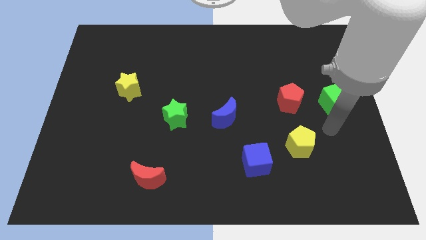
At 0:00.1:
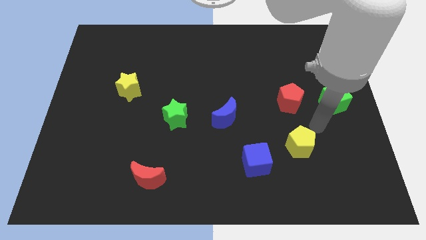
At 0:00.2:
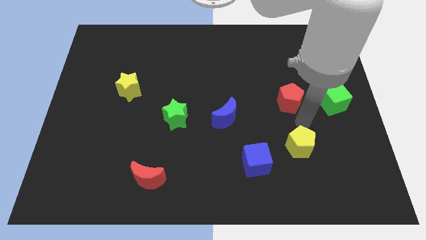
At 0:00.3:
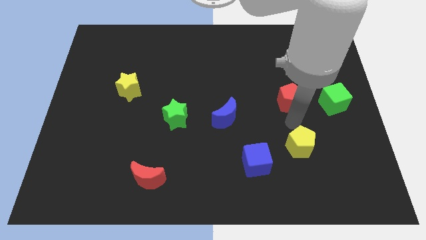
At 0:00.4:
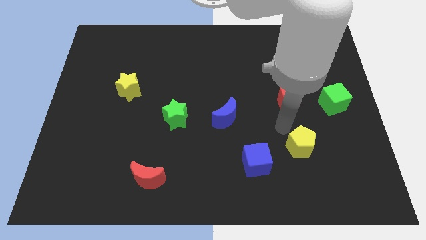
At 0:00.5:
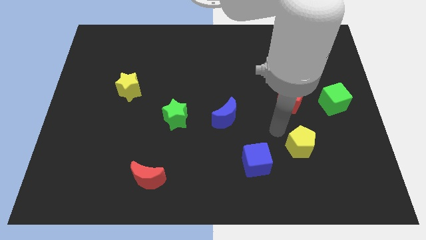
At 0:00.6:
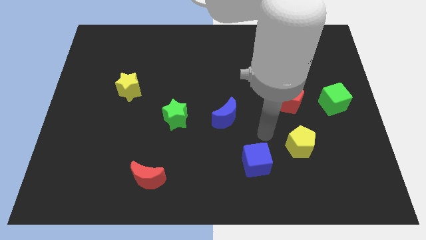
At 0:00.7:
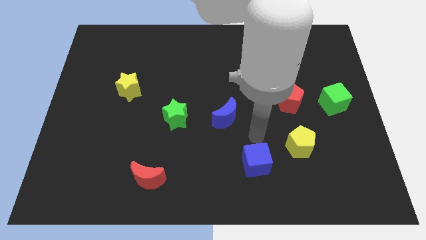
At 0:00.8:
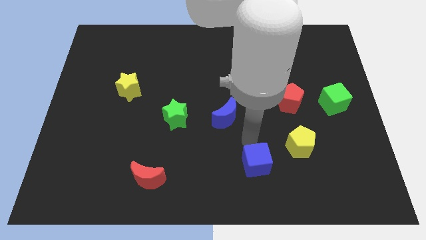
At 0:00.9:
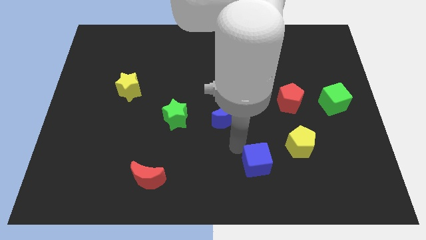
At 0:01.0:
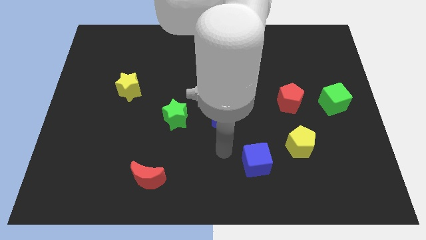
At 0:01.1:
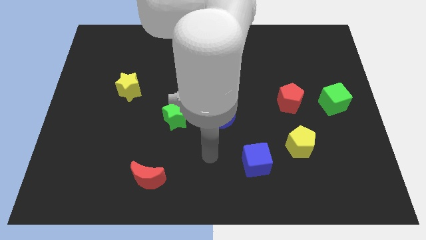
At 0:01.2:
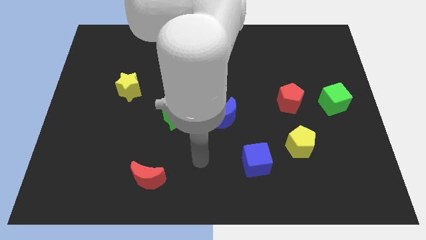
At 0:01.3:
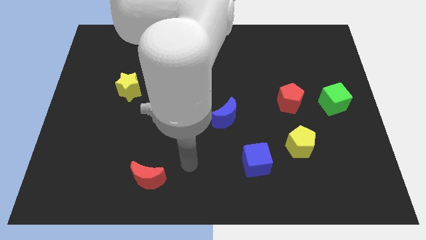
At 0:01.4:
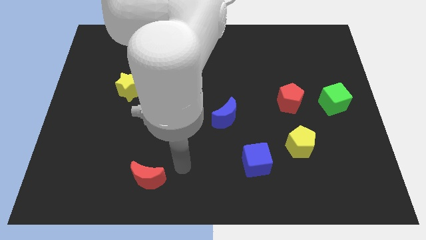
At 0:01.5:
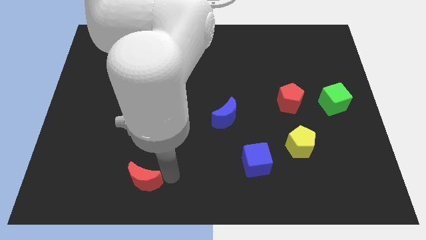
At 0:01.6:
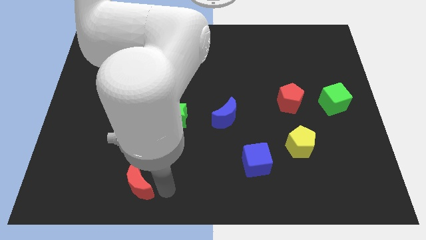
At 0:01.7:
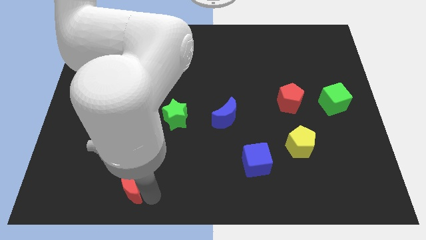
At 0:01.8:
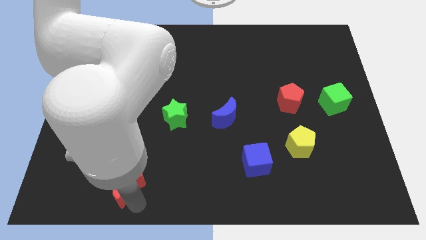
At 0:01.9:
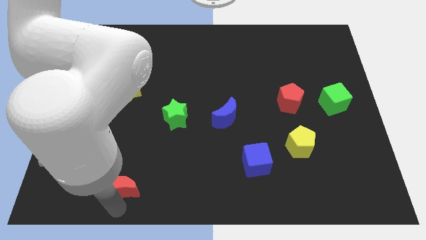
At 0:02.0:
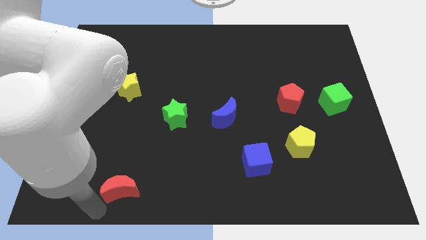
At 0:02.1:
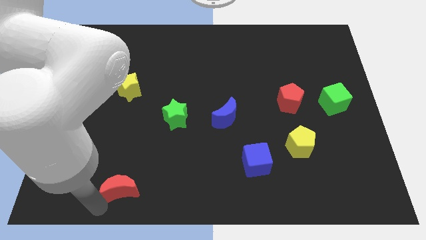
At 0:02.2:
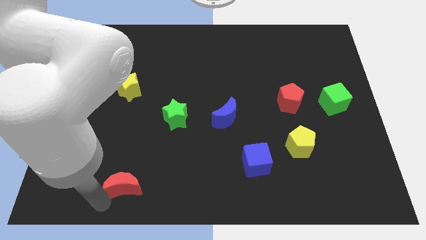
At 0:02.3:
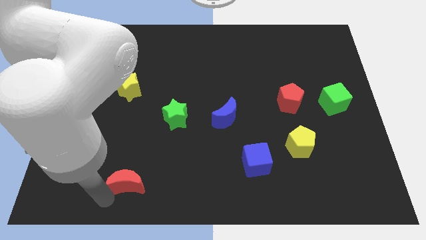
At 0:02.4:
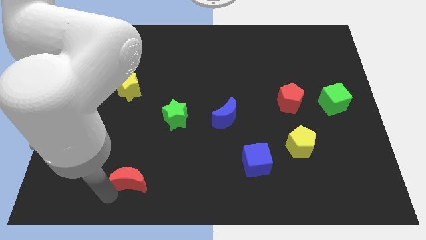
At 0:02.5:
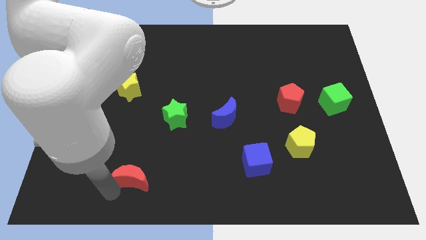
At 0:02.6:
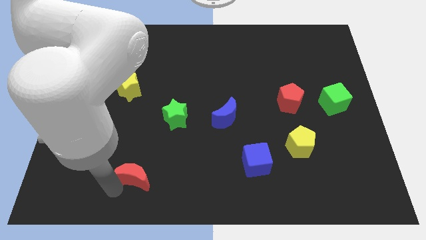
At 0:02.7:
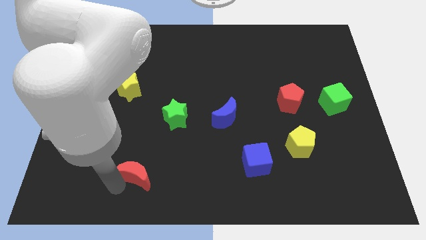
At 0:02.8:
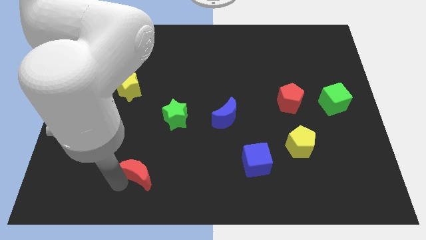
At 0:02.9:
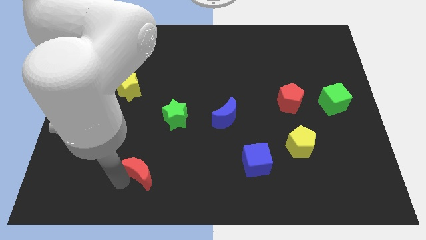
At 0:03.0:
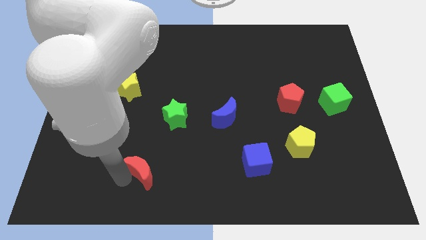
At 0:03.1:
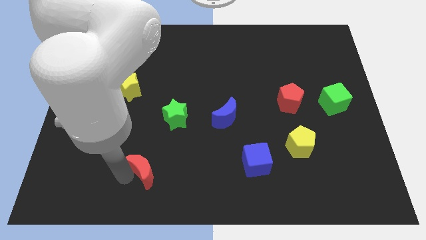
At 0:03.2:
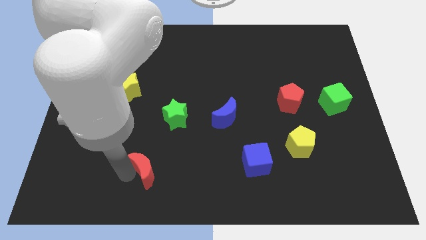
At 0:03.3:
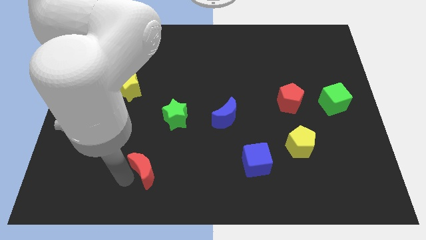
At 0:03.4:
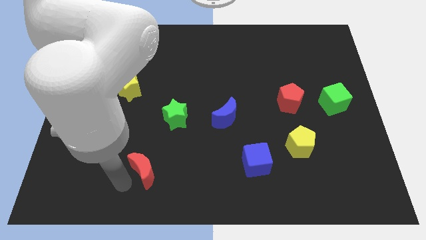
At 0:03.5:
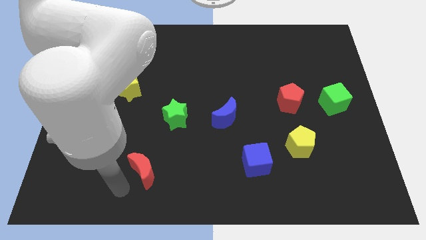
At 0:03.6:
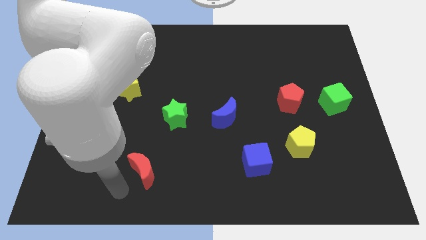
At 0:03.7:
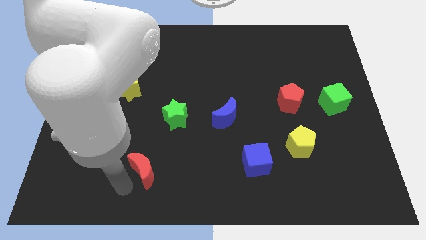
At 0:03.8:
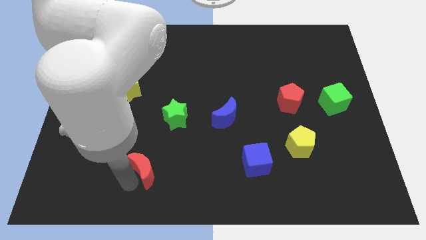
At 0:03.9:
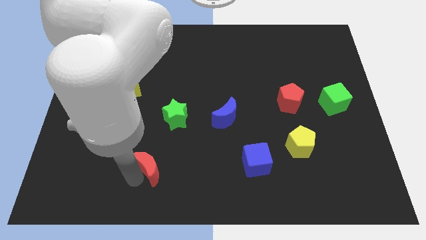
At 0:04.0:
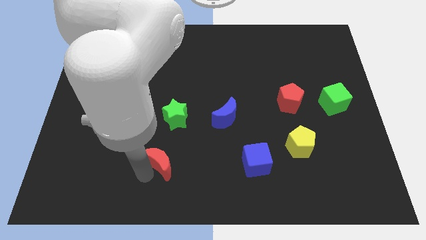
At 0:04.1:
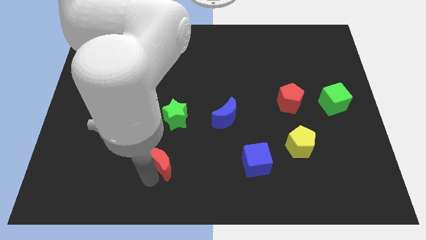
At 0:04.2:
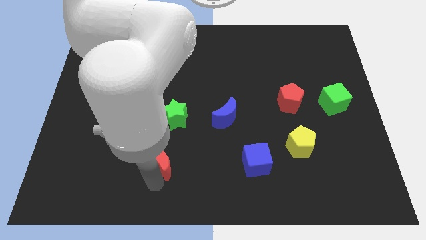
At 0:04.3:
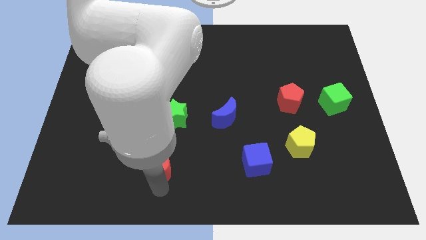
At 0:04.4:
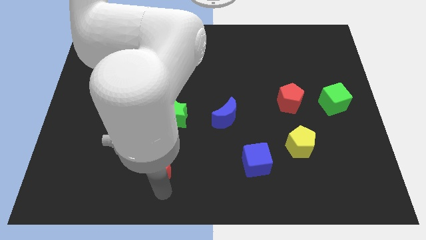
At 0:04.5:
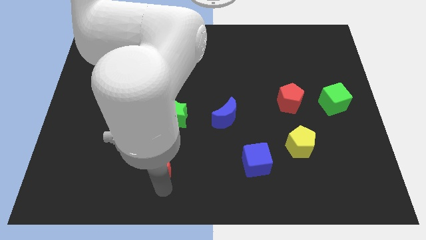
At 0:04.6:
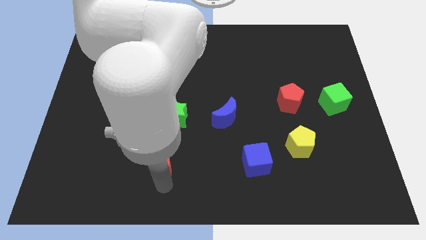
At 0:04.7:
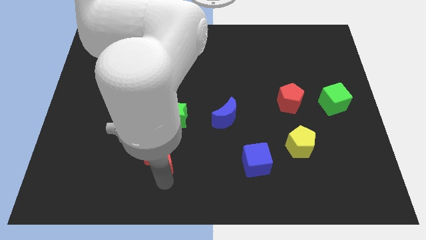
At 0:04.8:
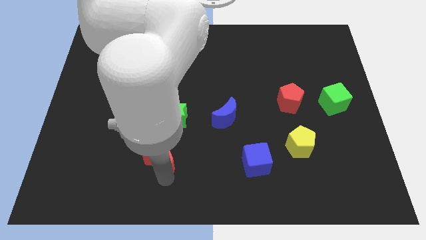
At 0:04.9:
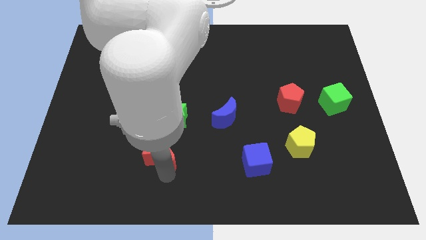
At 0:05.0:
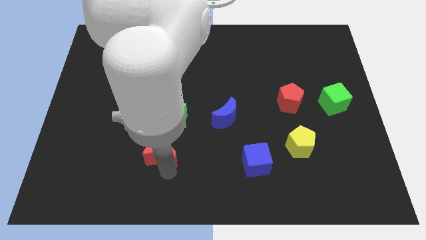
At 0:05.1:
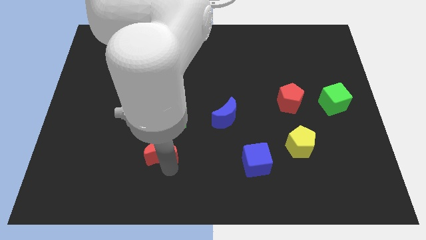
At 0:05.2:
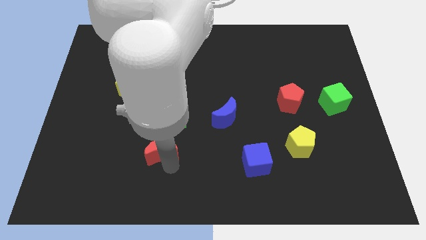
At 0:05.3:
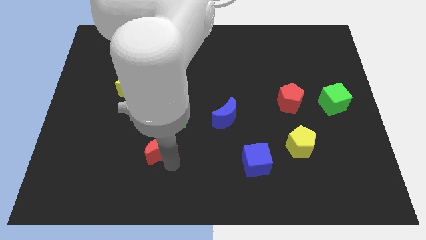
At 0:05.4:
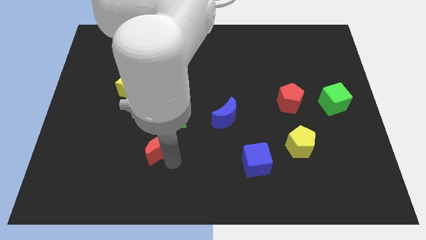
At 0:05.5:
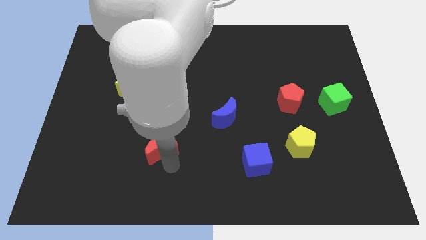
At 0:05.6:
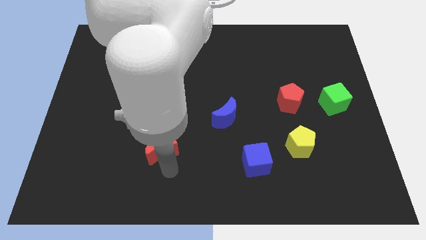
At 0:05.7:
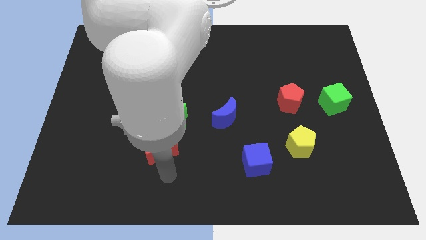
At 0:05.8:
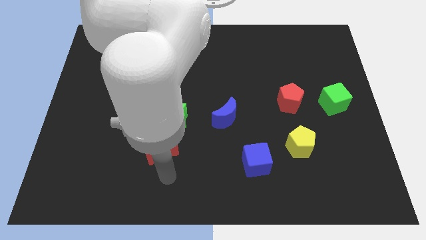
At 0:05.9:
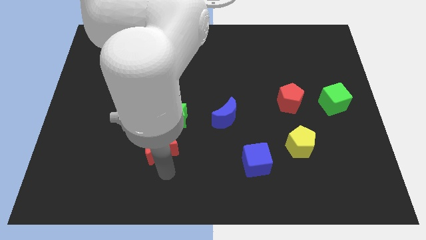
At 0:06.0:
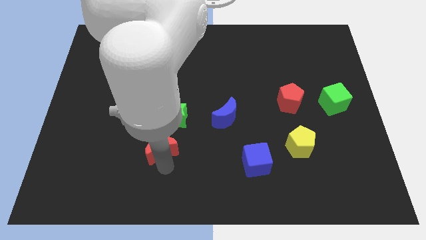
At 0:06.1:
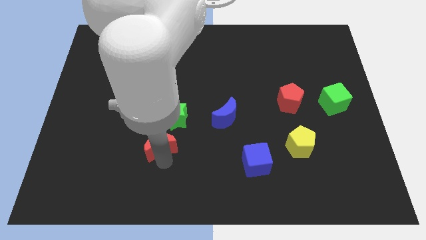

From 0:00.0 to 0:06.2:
slightly move the red moon up

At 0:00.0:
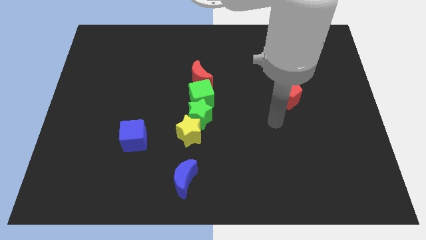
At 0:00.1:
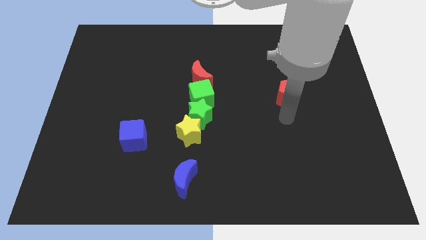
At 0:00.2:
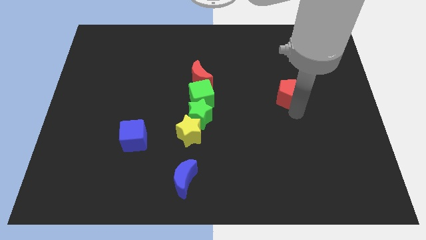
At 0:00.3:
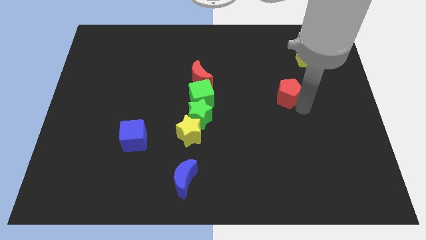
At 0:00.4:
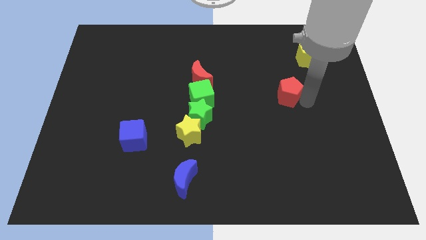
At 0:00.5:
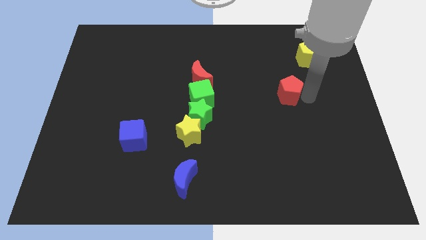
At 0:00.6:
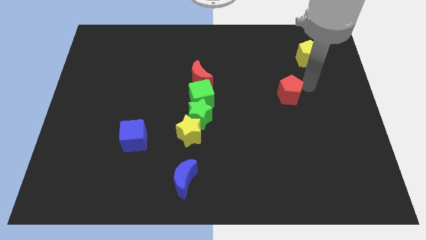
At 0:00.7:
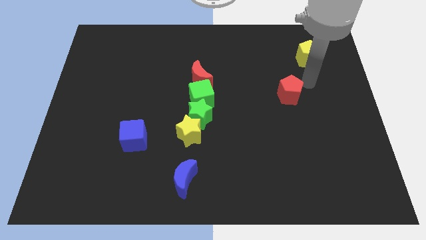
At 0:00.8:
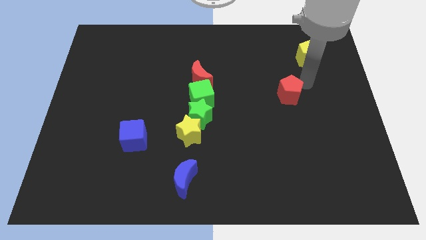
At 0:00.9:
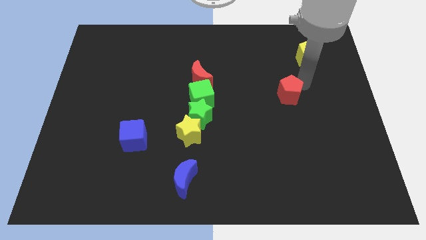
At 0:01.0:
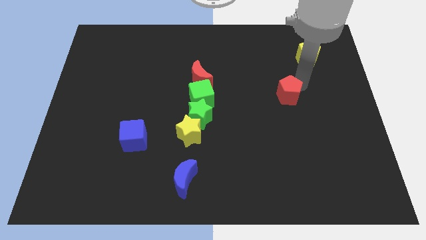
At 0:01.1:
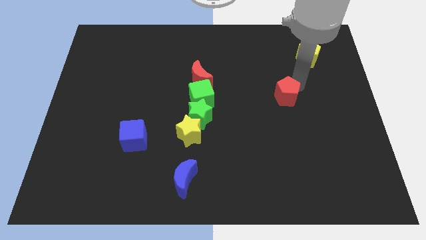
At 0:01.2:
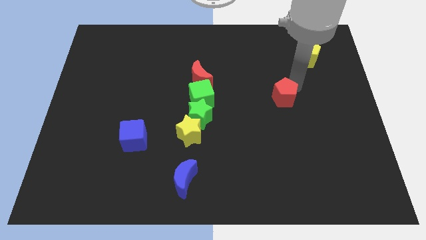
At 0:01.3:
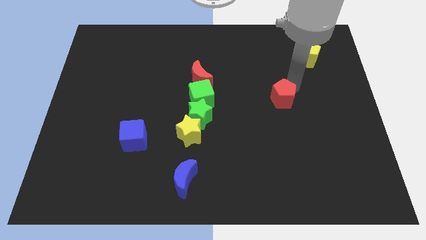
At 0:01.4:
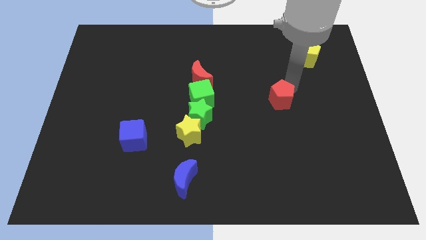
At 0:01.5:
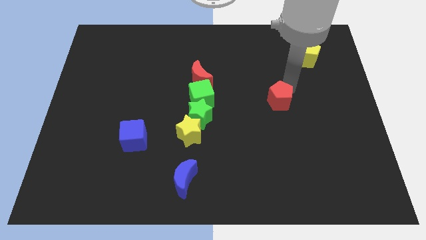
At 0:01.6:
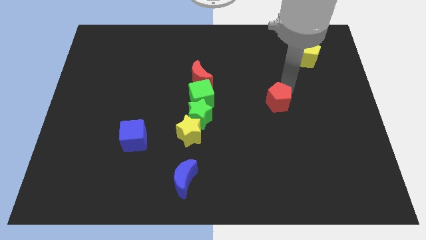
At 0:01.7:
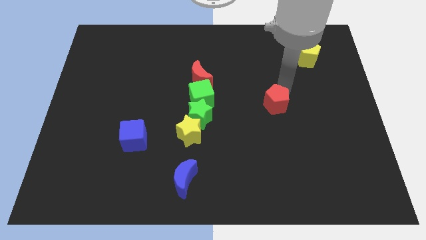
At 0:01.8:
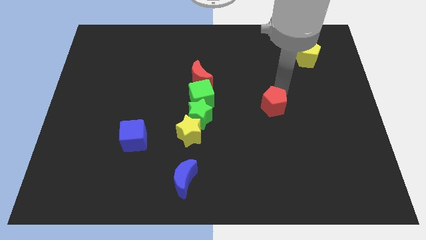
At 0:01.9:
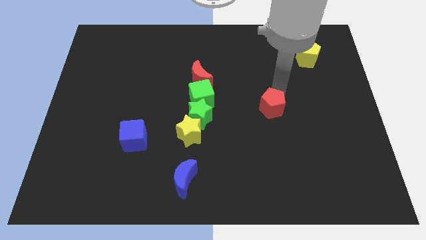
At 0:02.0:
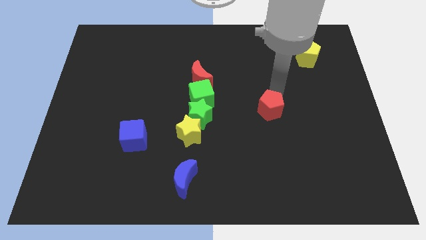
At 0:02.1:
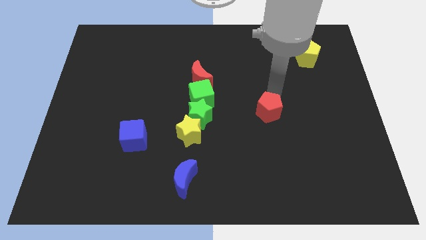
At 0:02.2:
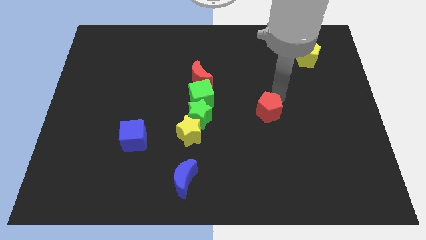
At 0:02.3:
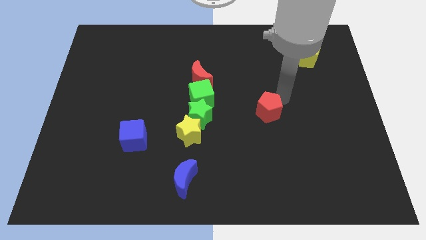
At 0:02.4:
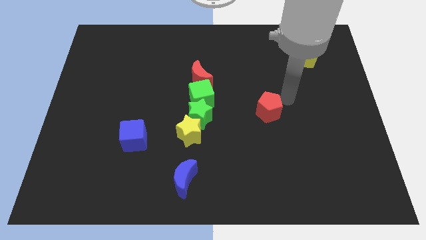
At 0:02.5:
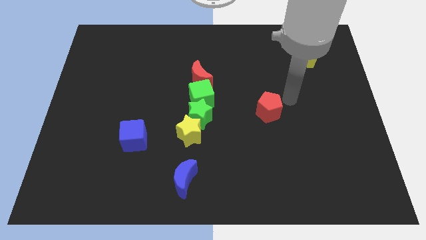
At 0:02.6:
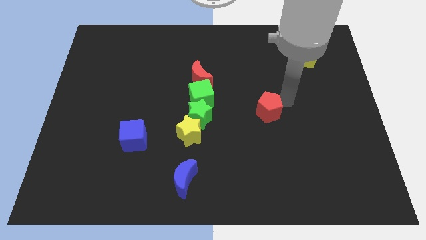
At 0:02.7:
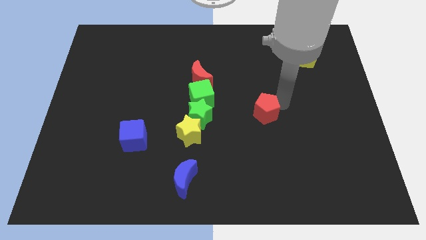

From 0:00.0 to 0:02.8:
slightly push the red pentagon down and left
